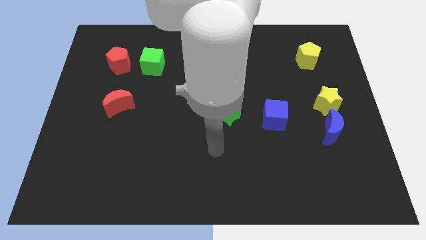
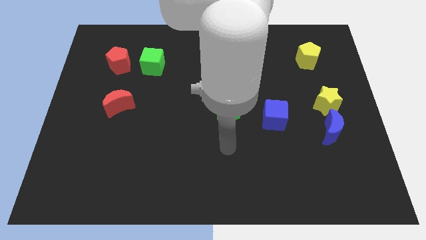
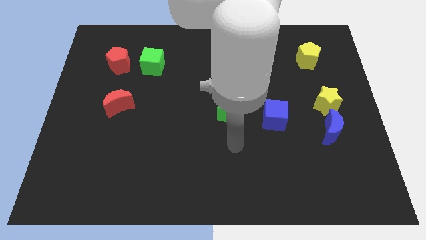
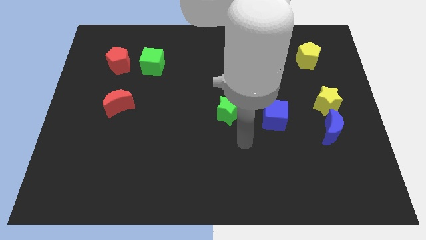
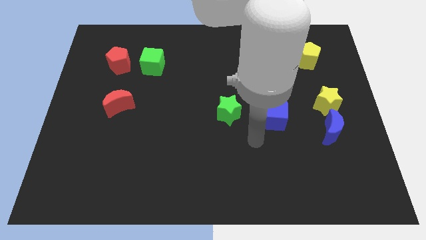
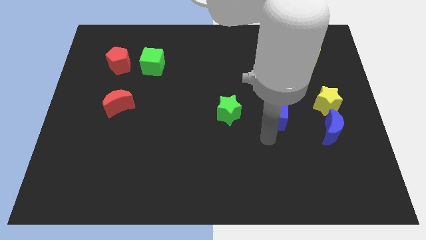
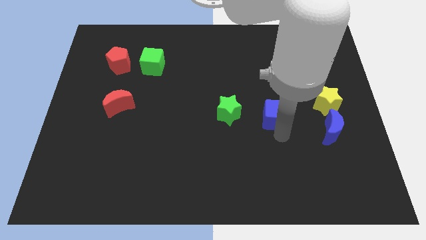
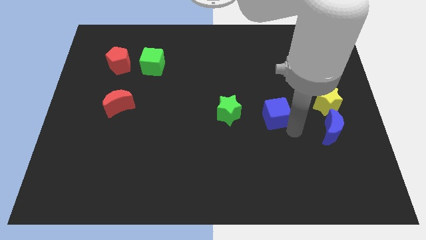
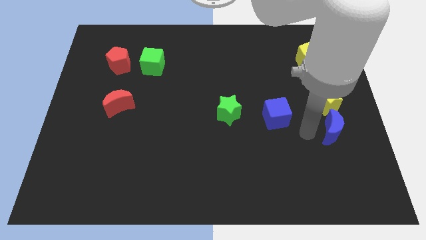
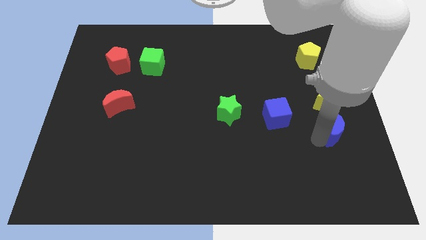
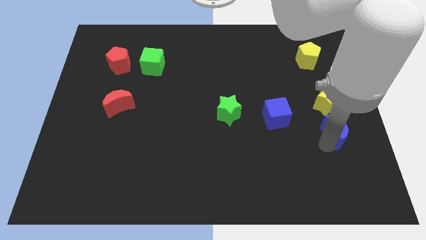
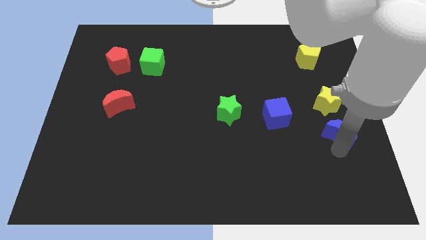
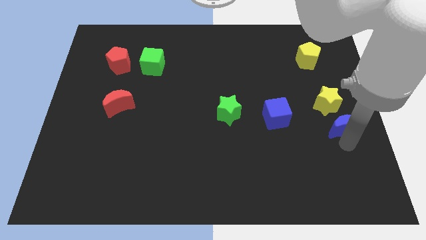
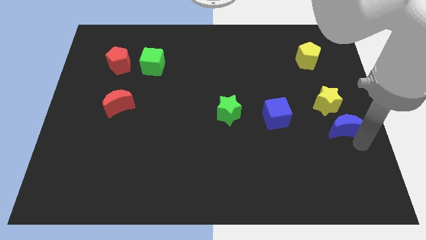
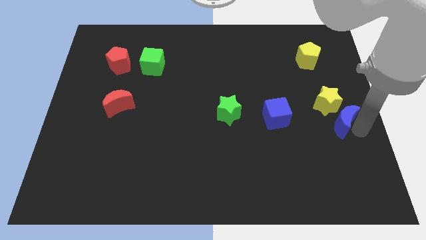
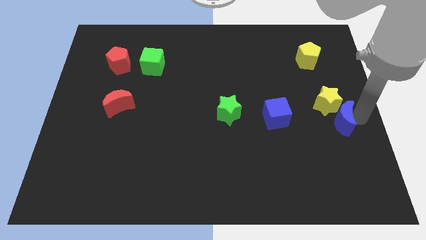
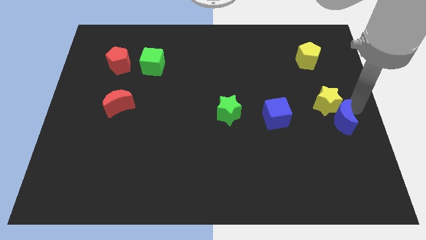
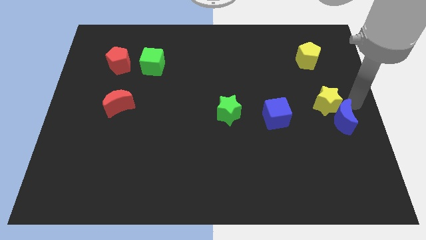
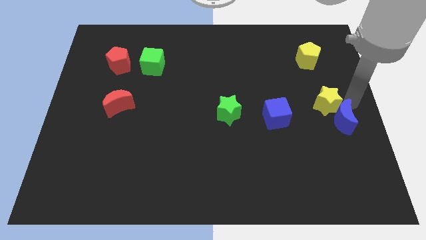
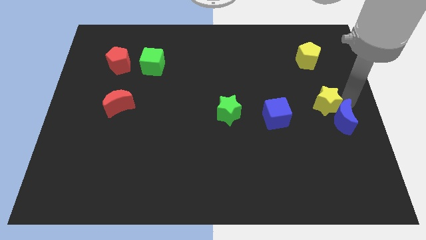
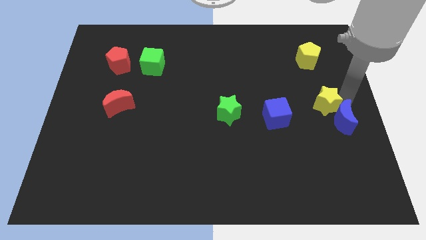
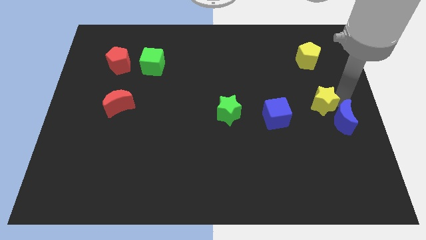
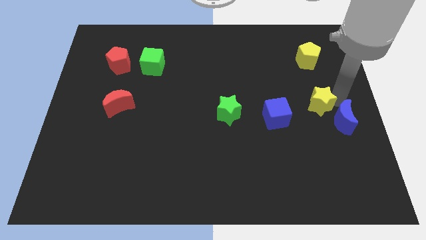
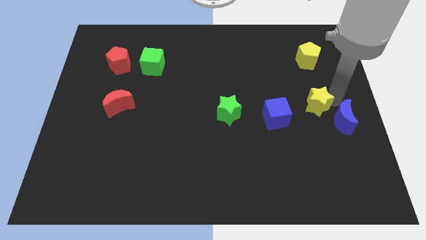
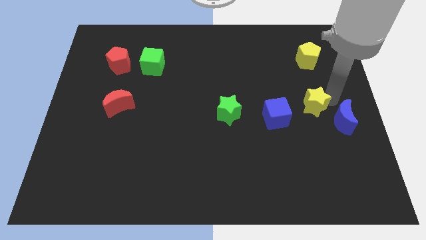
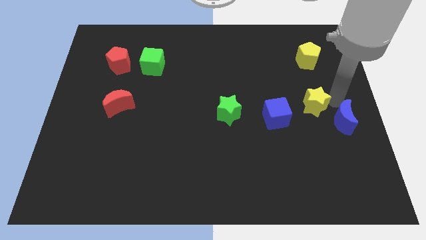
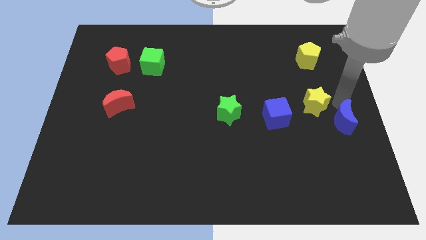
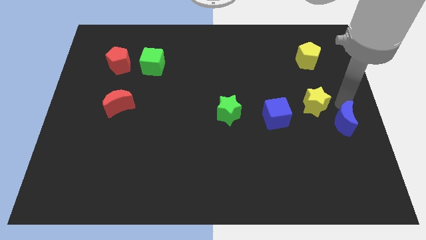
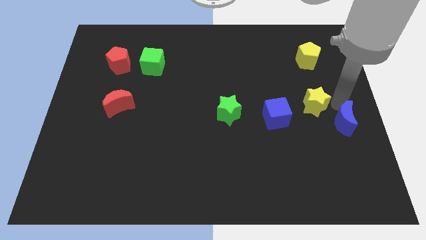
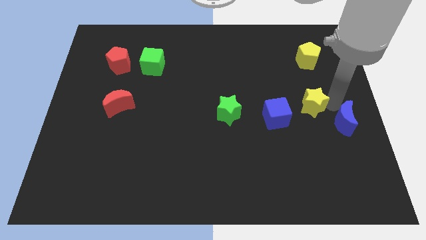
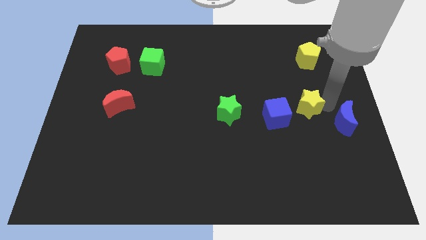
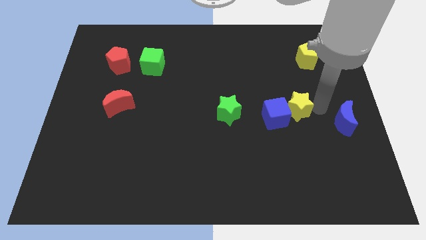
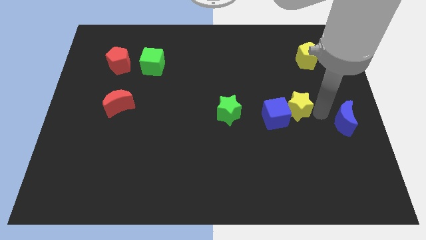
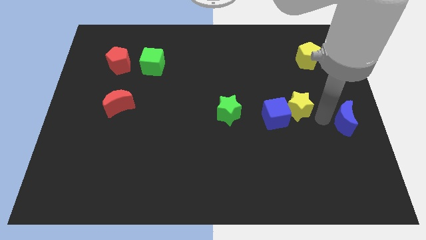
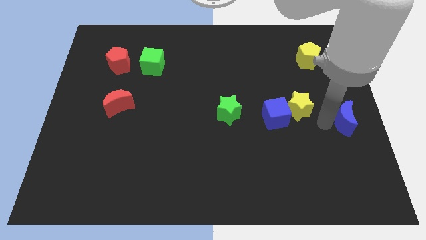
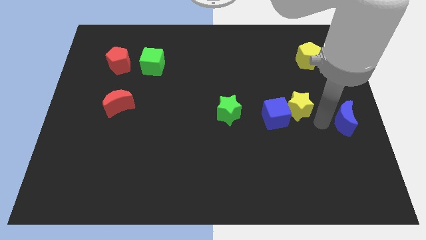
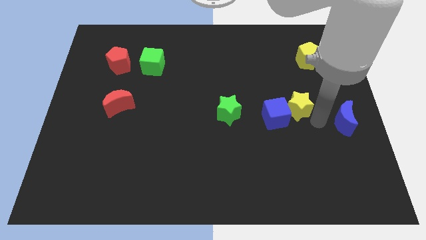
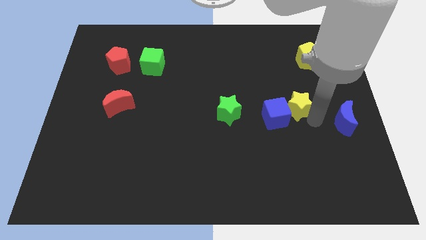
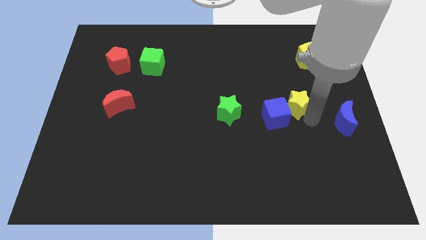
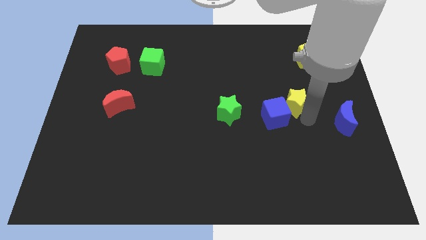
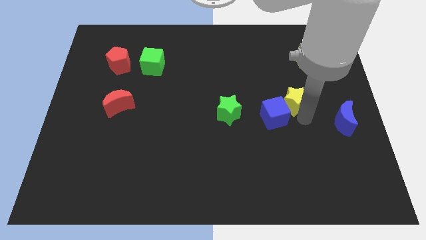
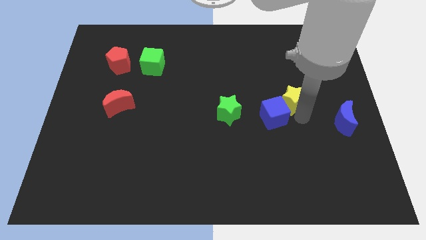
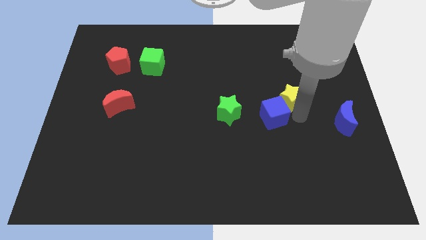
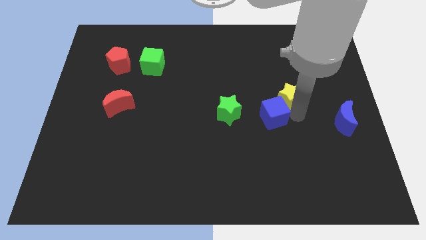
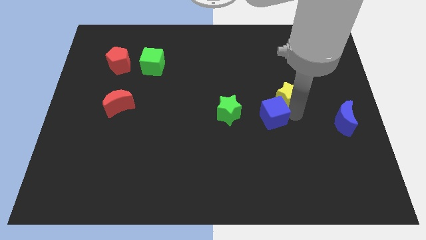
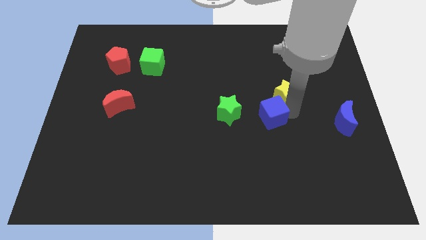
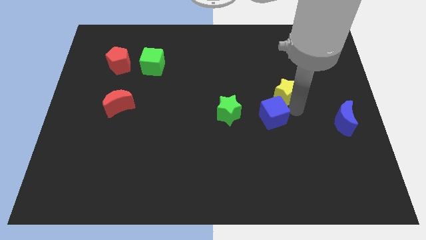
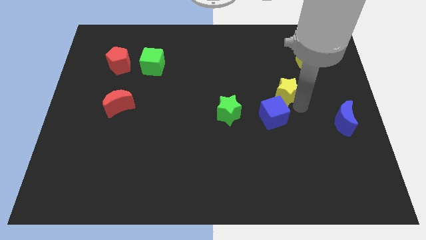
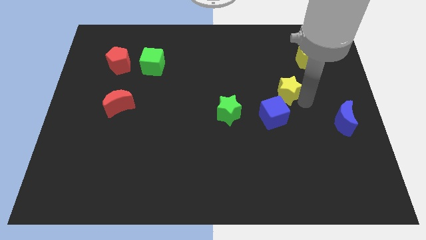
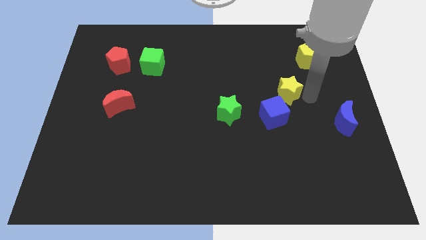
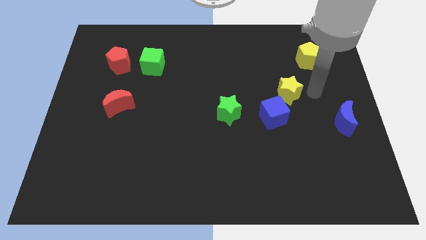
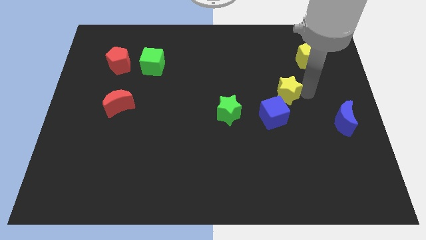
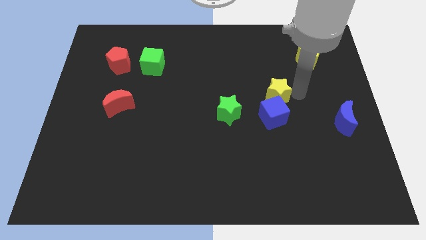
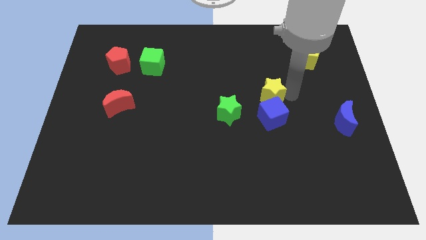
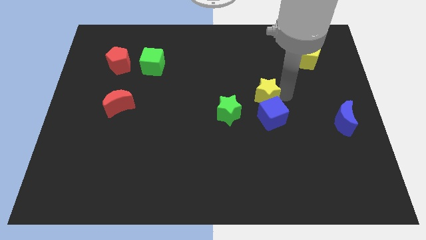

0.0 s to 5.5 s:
put the yellow star to the center

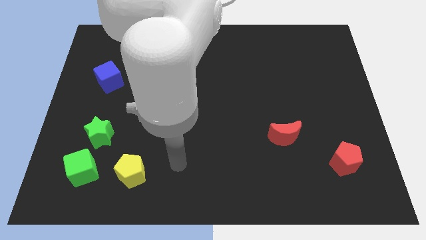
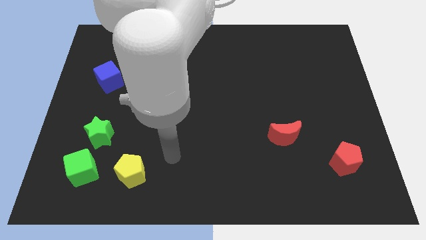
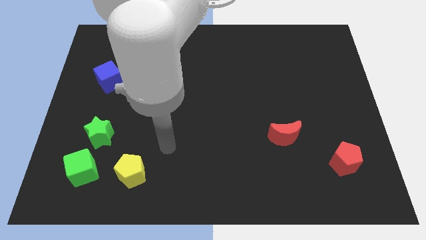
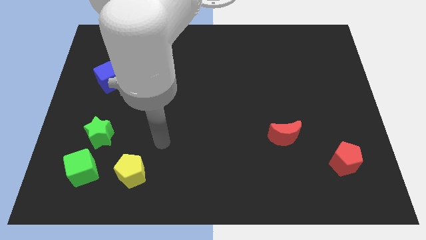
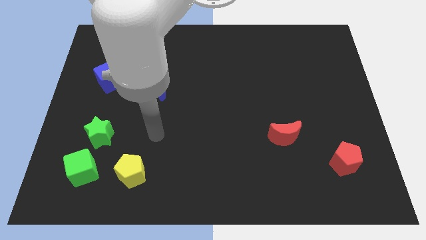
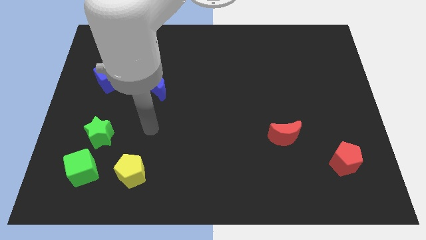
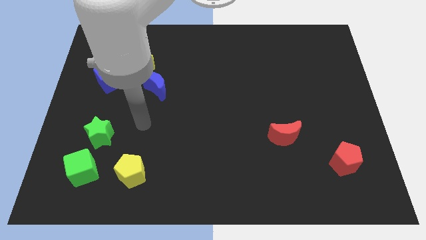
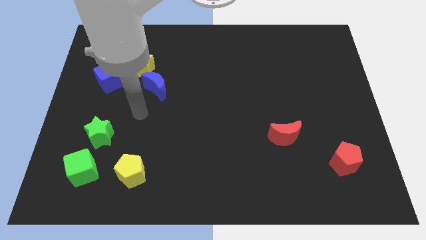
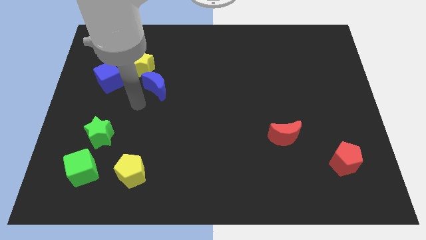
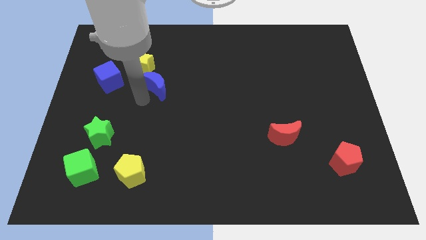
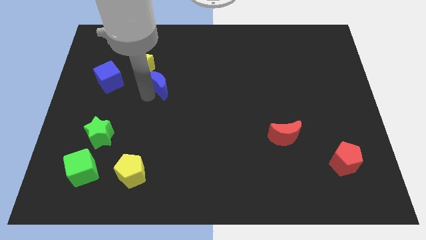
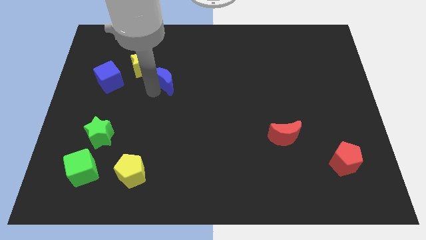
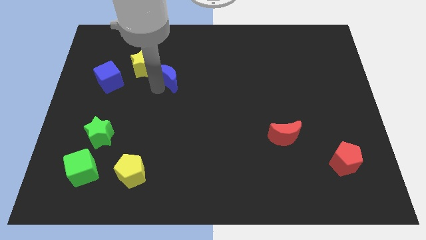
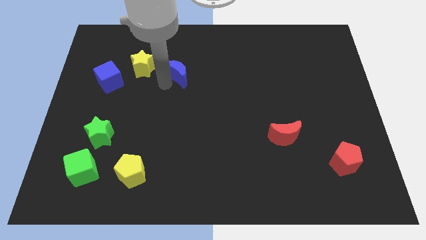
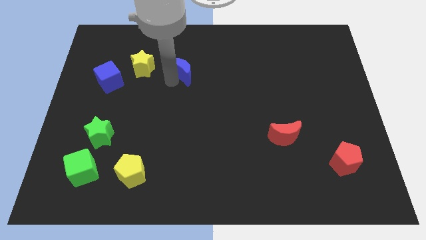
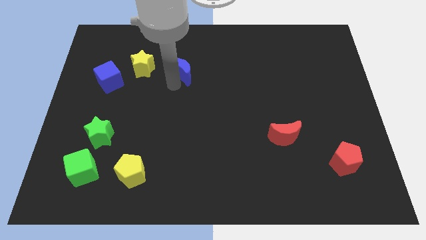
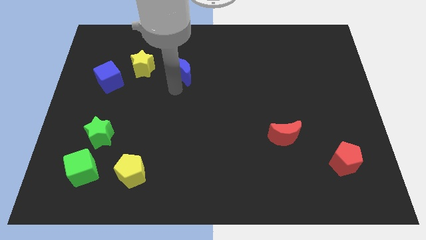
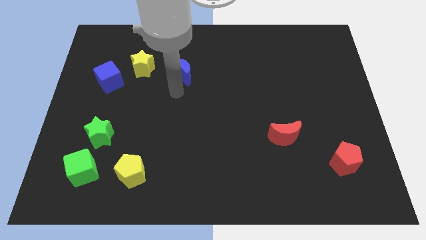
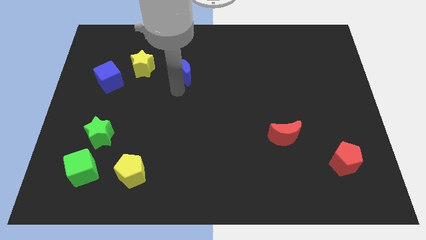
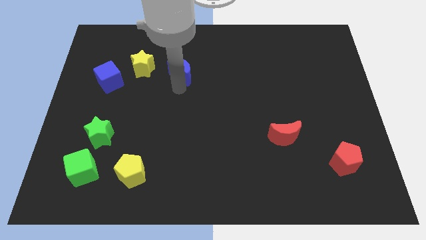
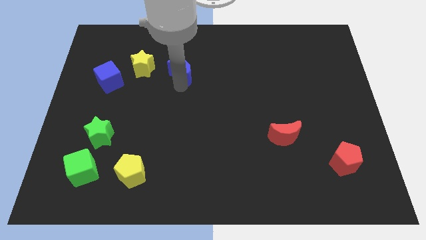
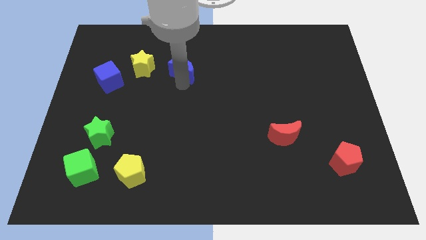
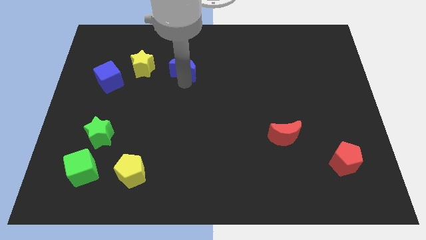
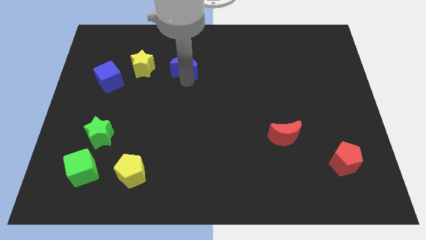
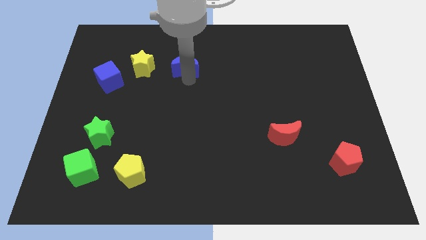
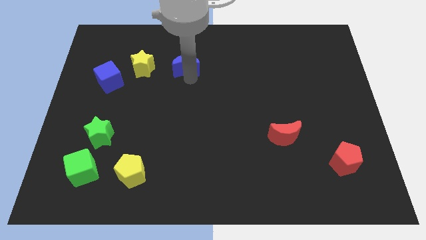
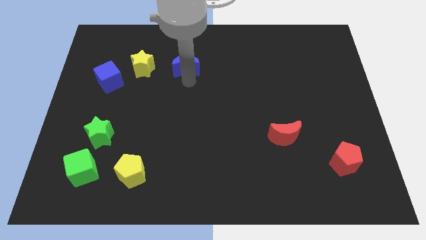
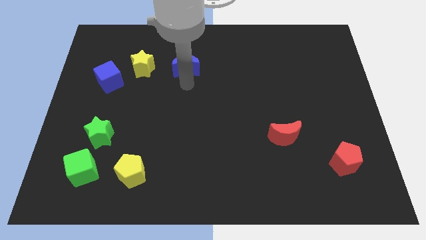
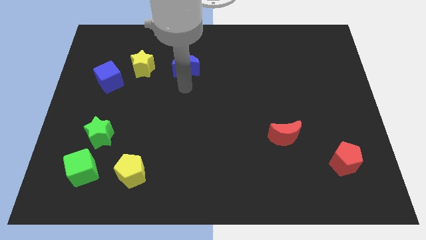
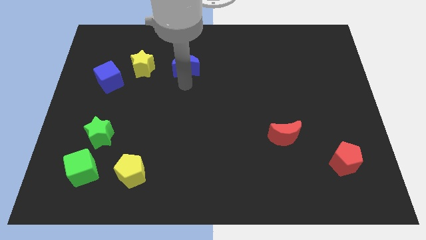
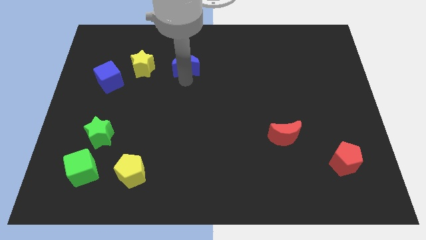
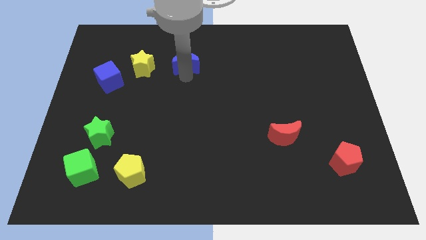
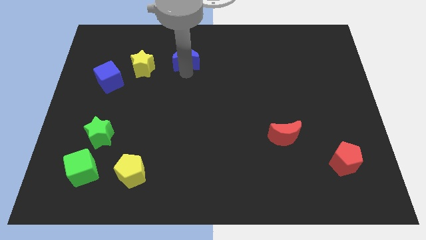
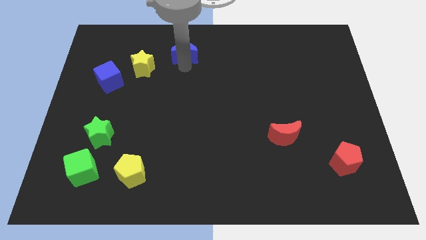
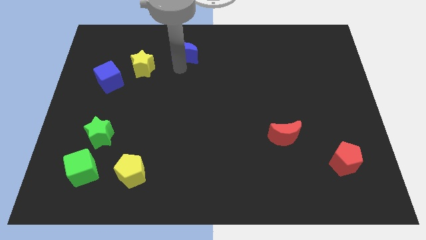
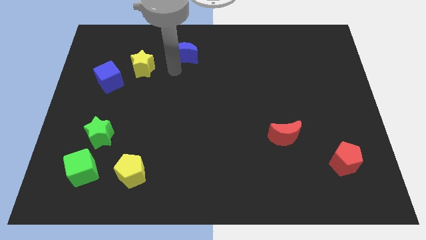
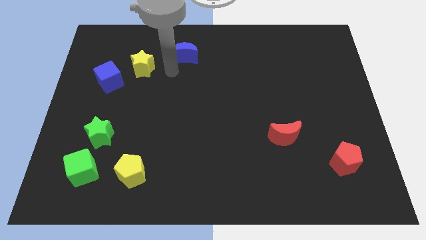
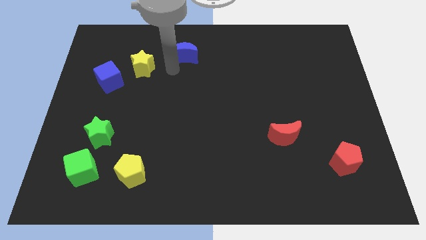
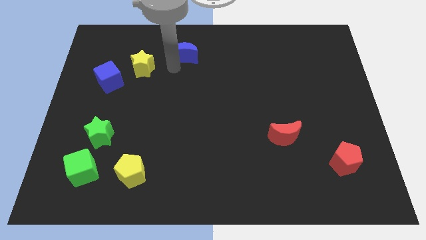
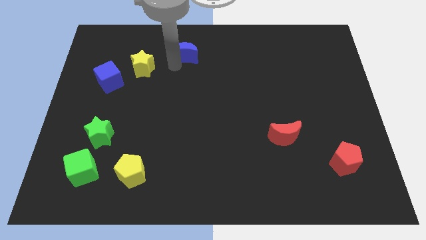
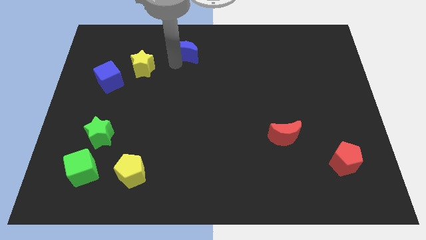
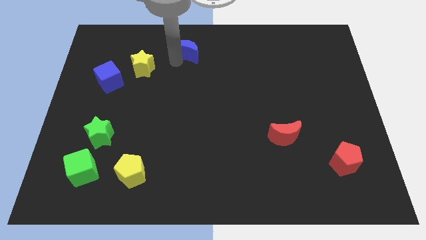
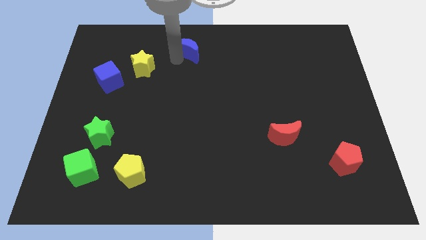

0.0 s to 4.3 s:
put the blue moon to the top side
